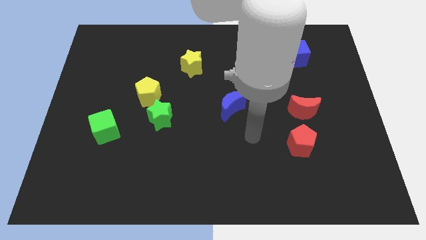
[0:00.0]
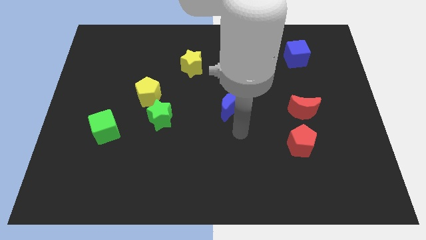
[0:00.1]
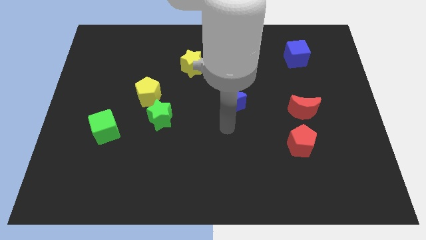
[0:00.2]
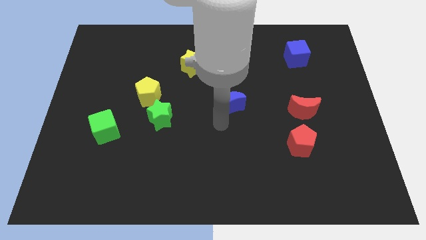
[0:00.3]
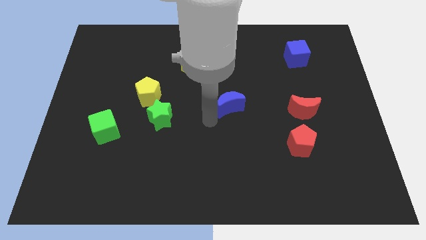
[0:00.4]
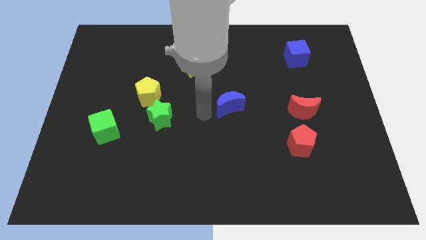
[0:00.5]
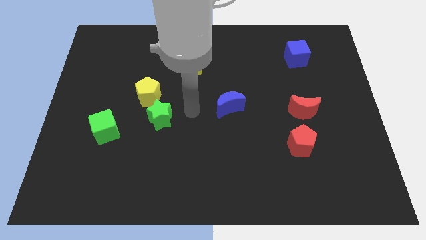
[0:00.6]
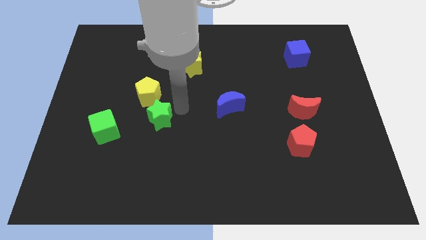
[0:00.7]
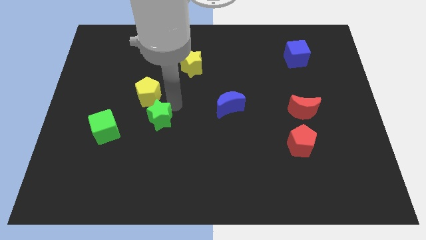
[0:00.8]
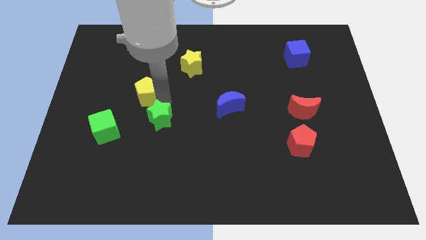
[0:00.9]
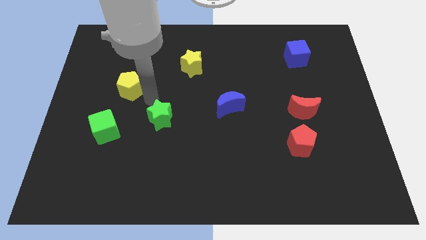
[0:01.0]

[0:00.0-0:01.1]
separate the green star from the yellow pentagon

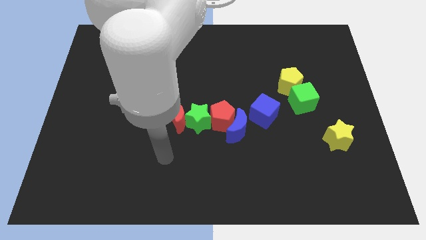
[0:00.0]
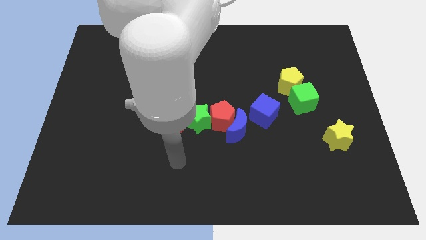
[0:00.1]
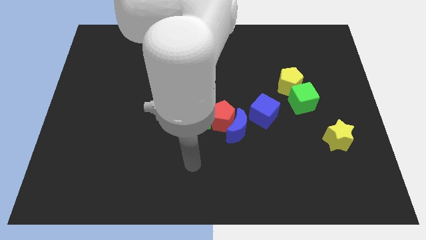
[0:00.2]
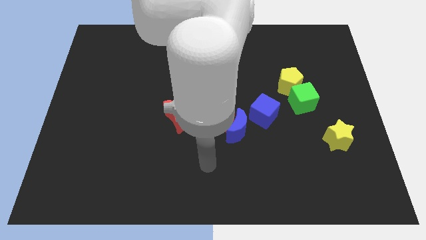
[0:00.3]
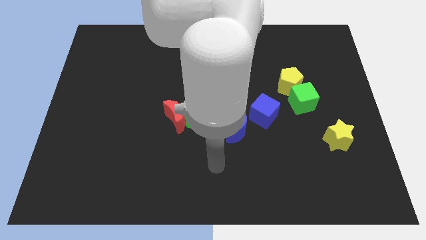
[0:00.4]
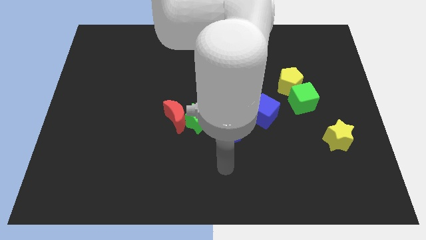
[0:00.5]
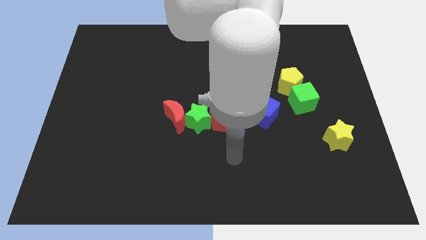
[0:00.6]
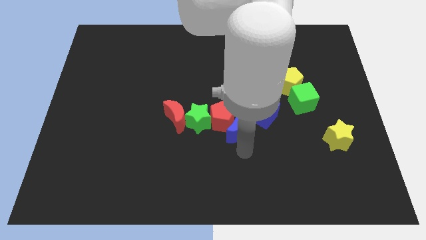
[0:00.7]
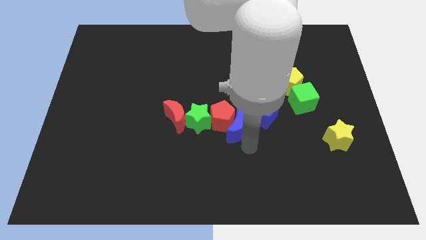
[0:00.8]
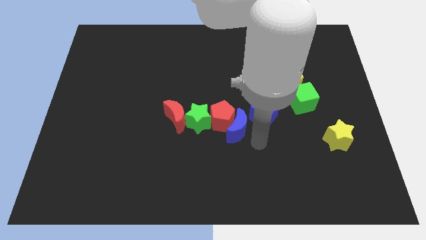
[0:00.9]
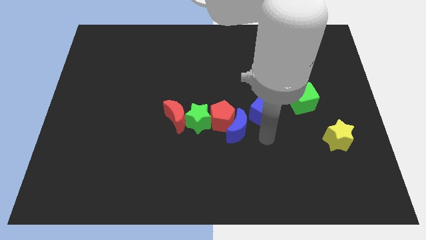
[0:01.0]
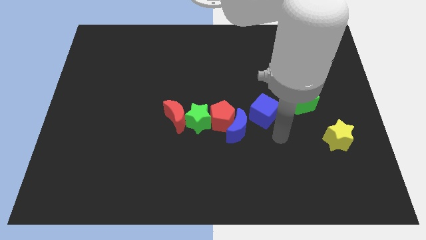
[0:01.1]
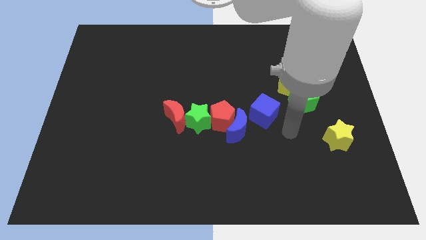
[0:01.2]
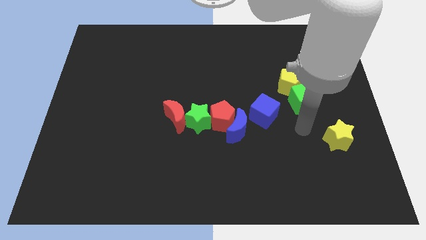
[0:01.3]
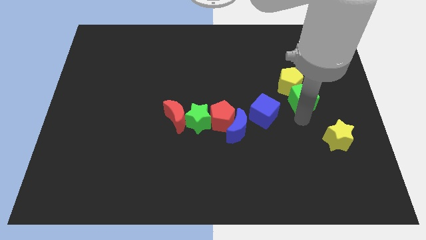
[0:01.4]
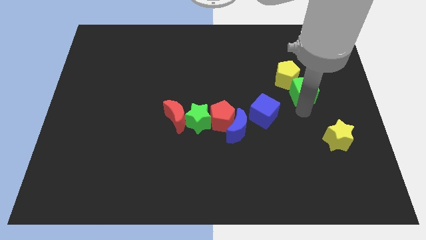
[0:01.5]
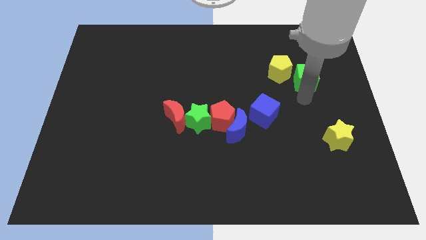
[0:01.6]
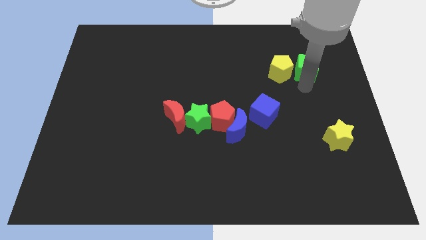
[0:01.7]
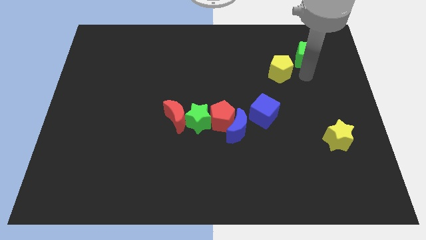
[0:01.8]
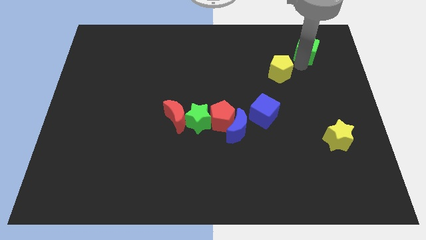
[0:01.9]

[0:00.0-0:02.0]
move the yellow pentagon away from the green cube

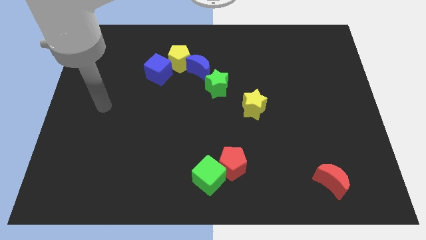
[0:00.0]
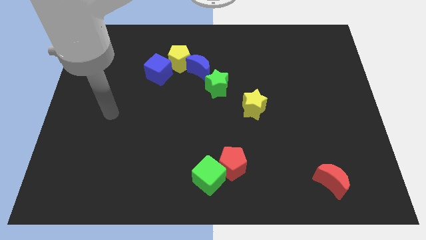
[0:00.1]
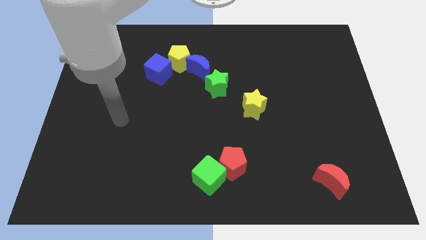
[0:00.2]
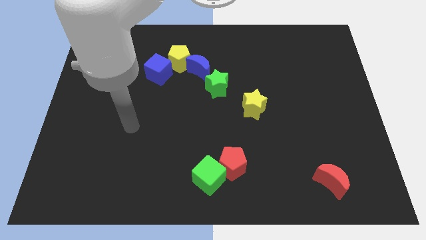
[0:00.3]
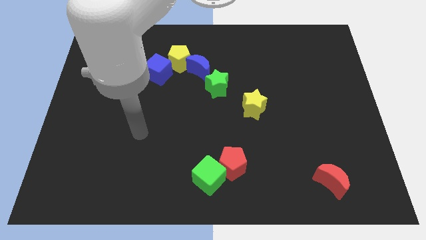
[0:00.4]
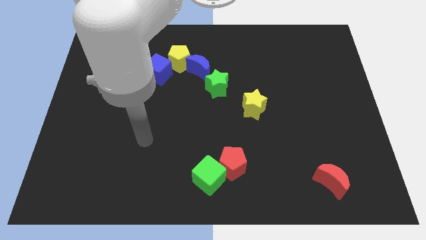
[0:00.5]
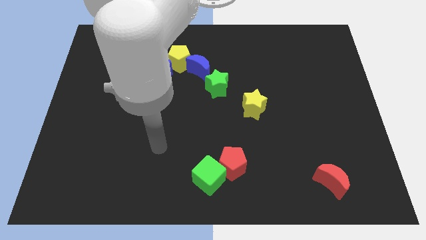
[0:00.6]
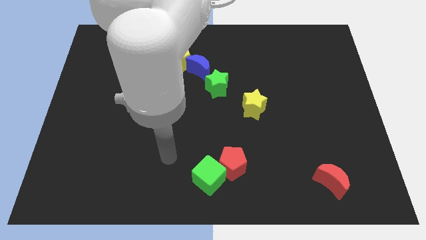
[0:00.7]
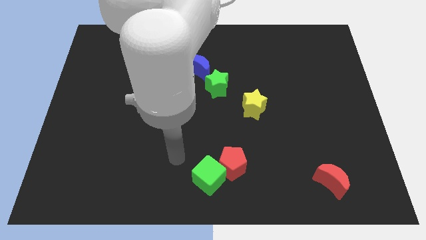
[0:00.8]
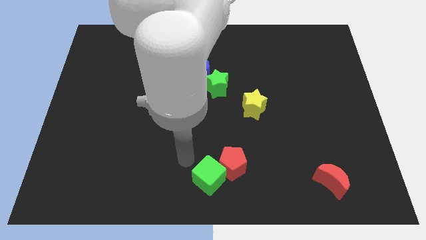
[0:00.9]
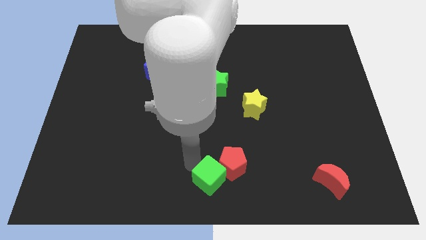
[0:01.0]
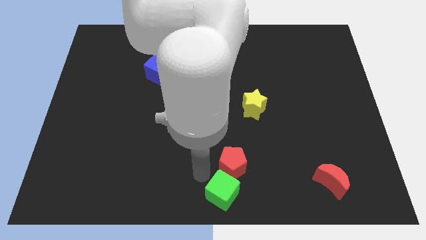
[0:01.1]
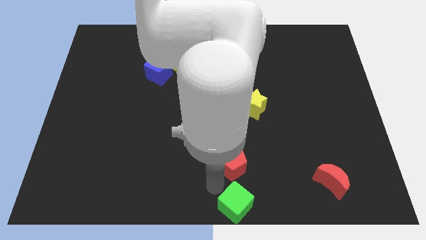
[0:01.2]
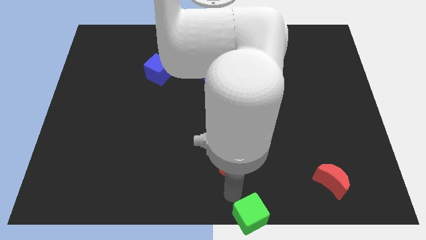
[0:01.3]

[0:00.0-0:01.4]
pull the red pentagon apart from the green cube

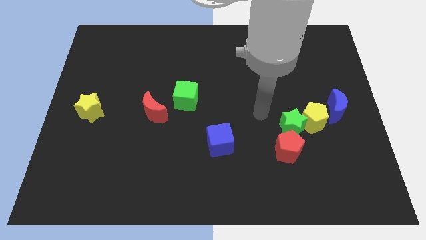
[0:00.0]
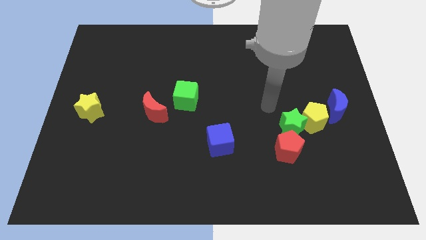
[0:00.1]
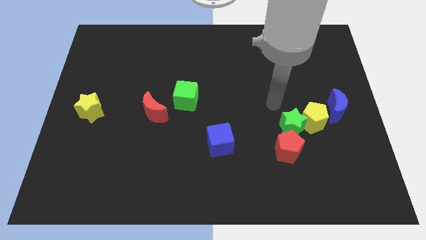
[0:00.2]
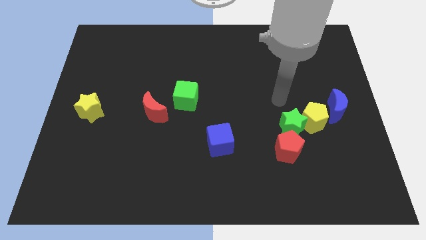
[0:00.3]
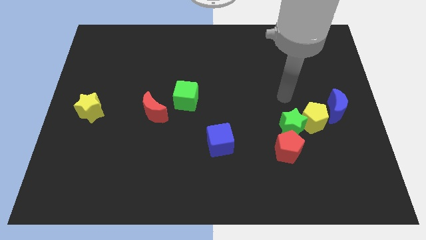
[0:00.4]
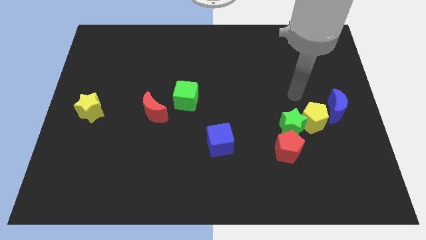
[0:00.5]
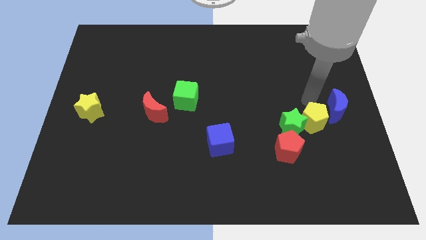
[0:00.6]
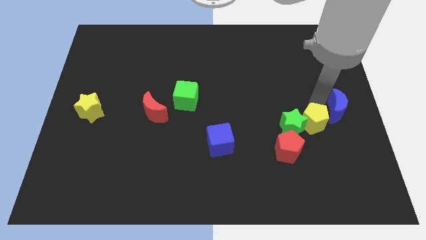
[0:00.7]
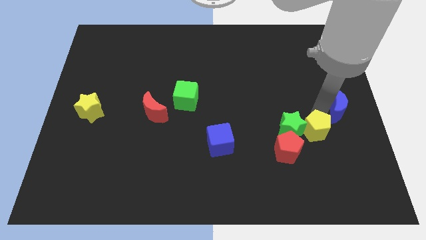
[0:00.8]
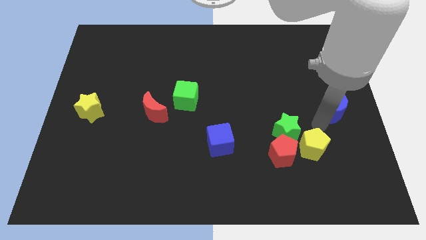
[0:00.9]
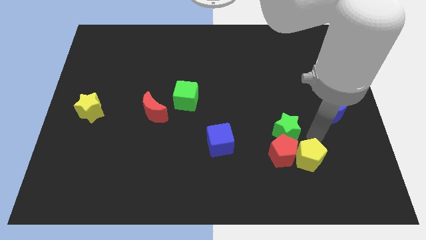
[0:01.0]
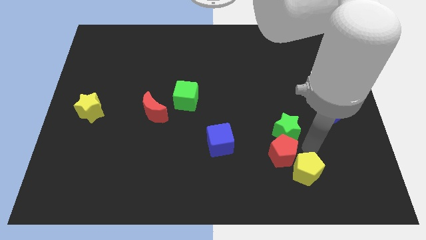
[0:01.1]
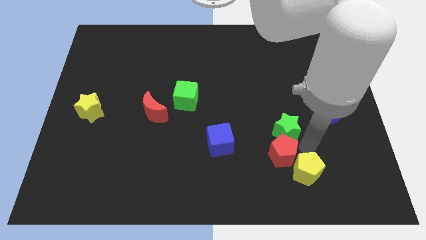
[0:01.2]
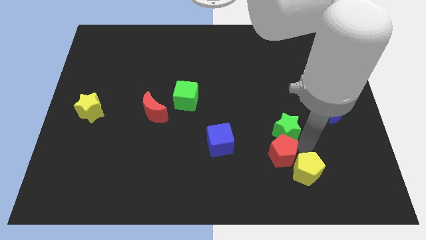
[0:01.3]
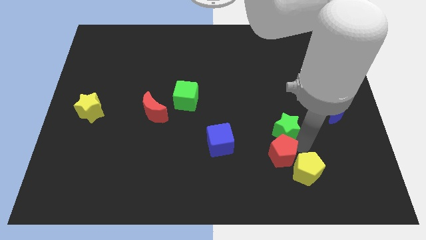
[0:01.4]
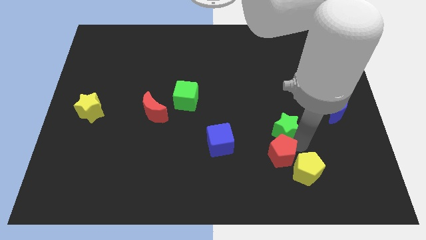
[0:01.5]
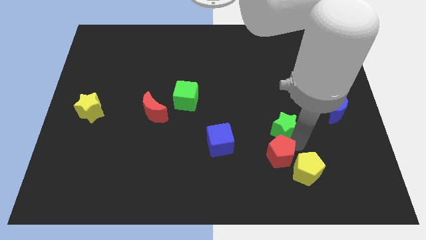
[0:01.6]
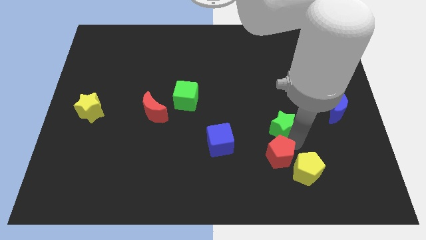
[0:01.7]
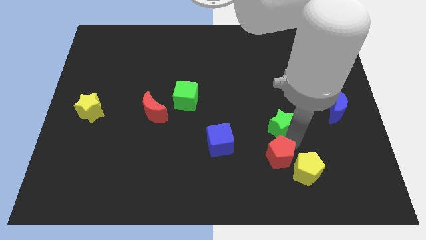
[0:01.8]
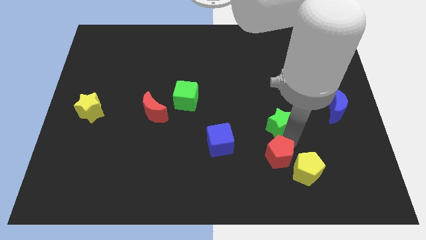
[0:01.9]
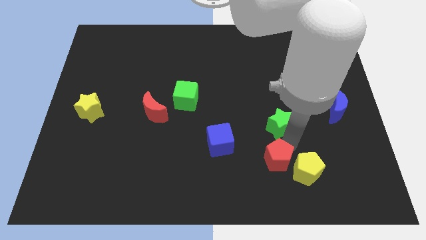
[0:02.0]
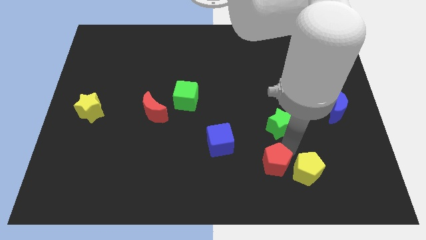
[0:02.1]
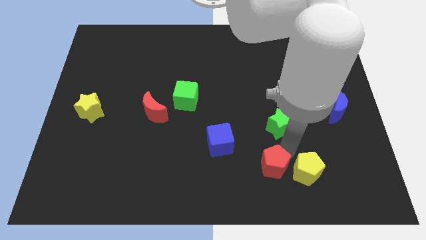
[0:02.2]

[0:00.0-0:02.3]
move the green star away from the yellow pentagon and red pentagon

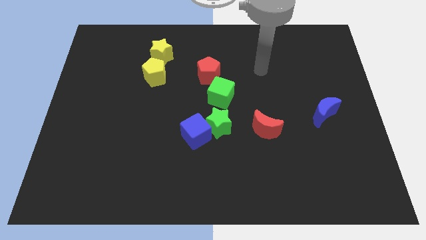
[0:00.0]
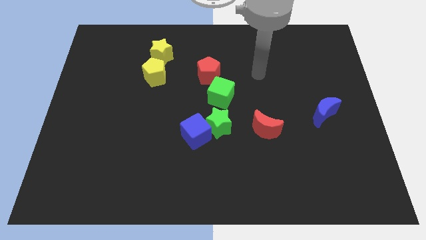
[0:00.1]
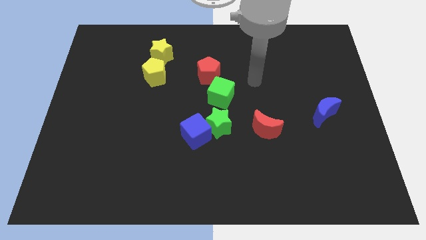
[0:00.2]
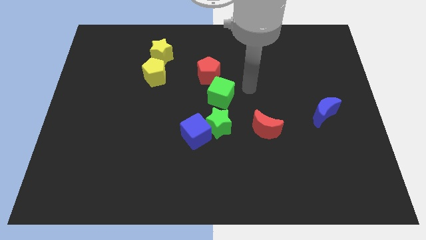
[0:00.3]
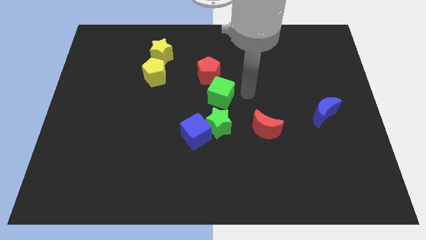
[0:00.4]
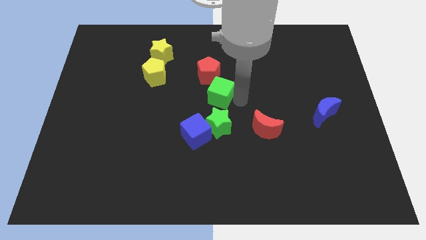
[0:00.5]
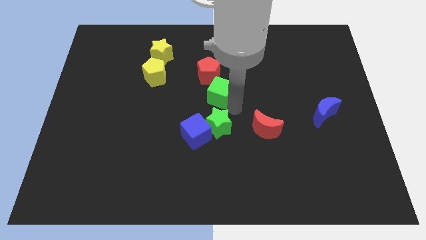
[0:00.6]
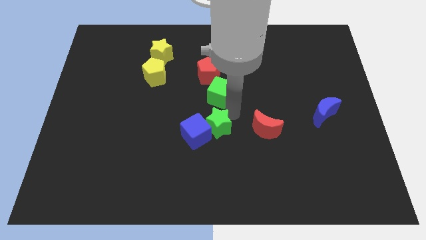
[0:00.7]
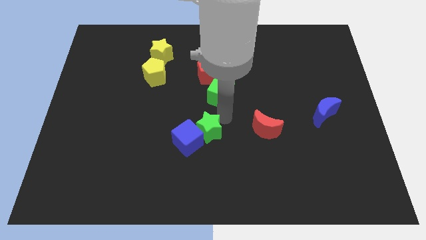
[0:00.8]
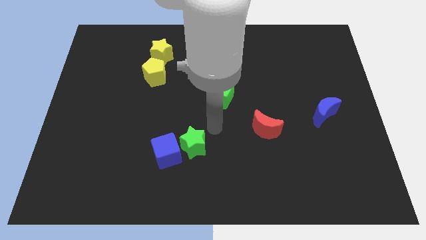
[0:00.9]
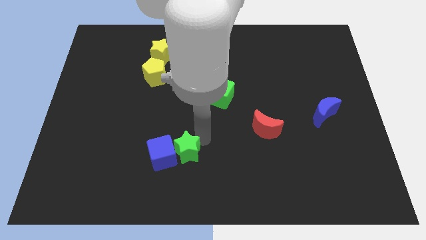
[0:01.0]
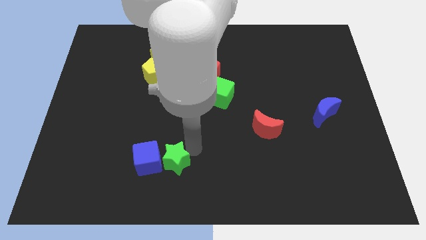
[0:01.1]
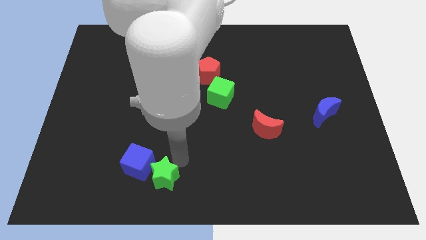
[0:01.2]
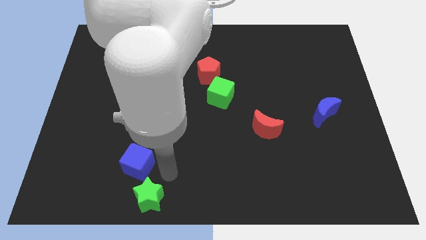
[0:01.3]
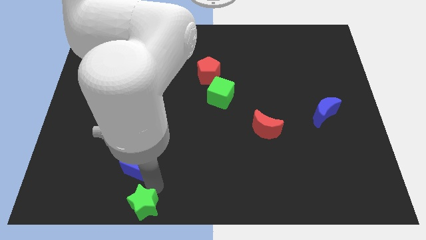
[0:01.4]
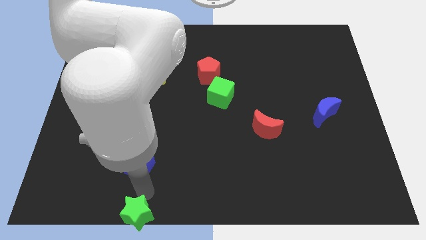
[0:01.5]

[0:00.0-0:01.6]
move the blue cube away from the green star

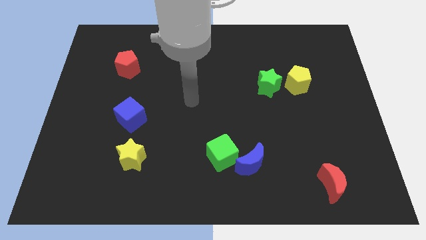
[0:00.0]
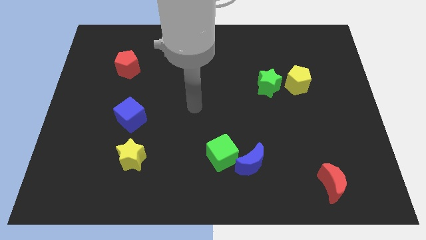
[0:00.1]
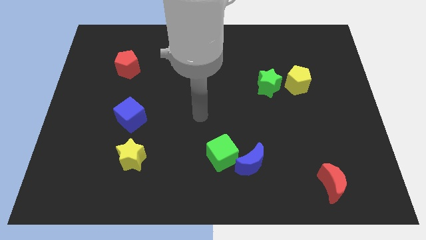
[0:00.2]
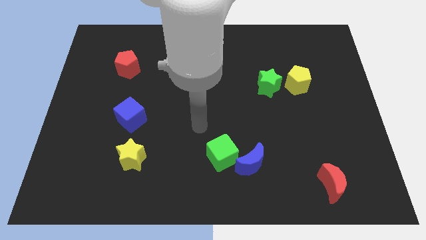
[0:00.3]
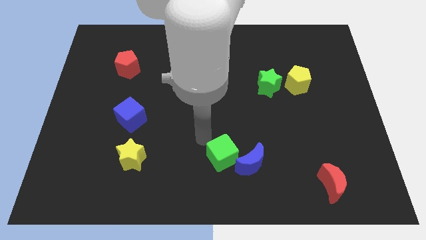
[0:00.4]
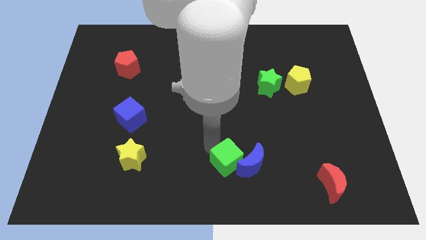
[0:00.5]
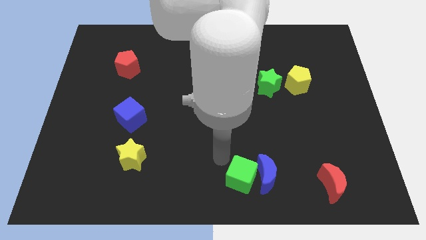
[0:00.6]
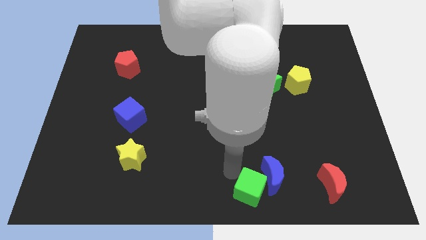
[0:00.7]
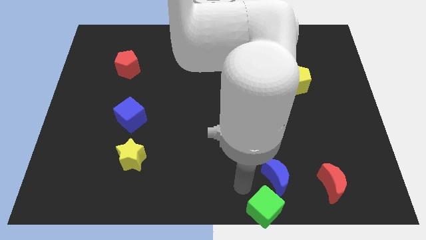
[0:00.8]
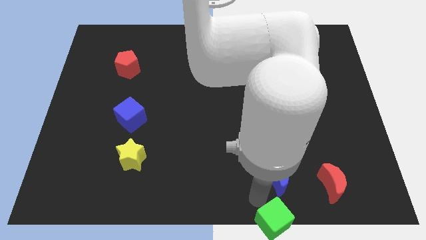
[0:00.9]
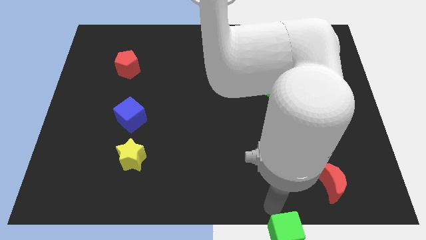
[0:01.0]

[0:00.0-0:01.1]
move the blue moon away from the green cube

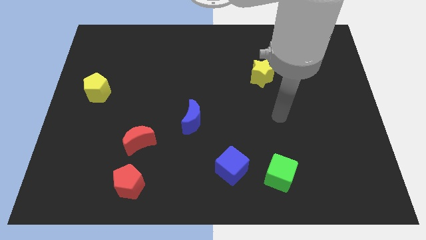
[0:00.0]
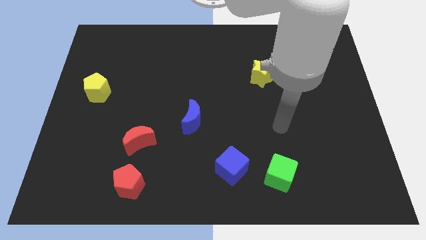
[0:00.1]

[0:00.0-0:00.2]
move the blue cube away from the green cube
